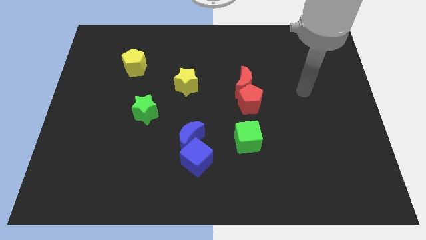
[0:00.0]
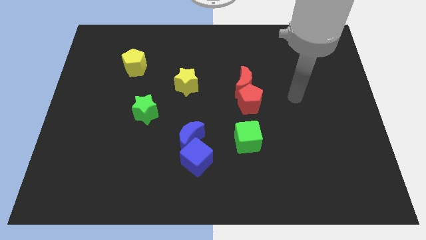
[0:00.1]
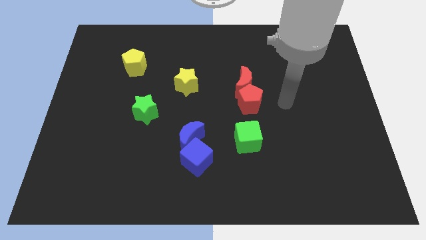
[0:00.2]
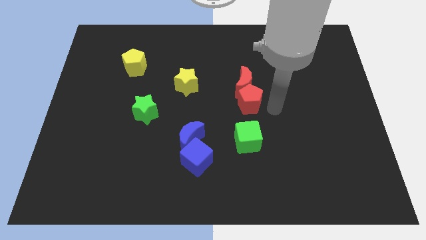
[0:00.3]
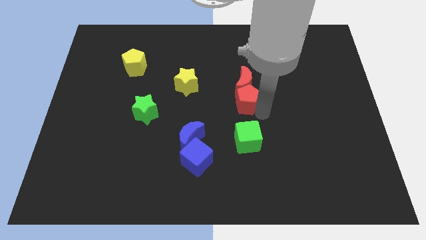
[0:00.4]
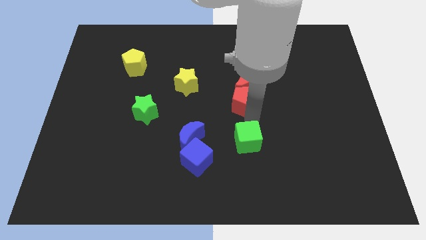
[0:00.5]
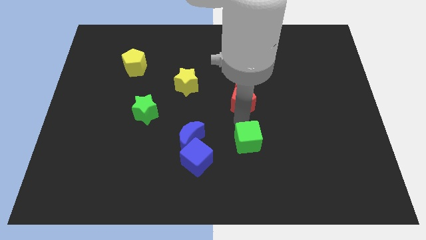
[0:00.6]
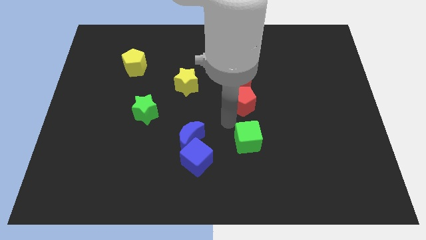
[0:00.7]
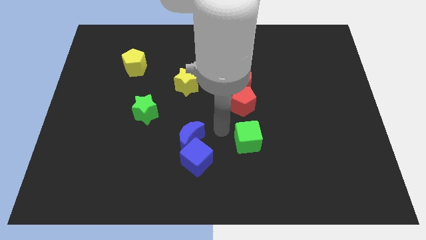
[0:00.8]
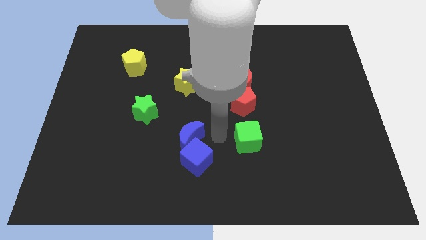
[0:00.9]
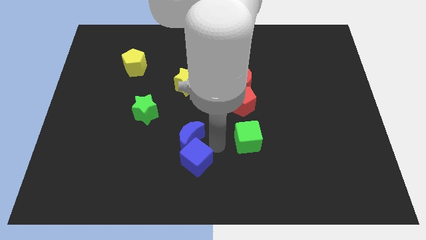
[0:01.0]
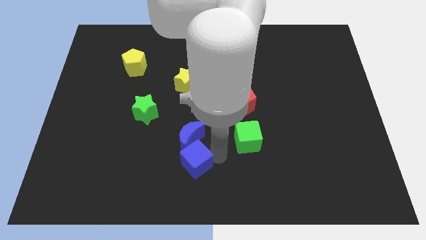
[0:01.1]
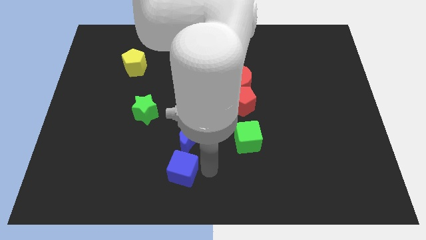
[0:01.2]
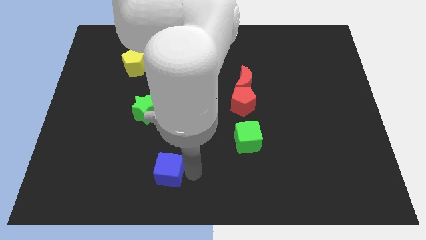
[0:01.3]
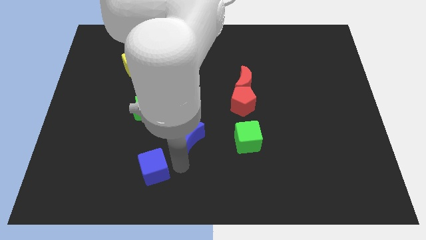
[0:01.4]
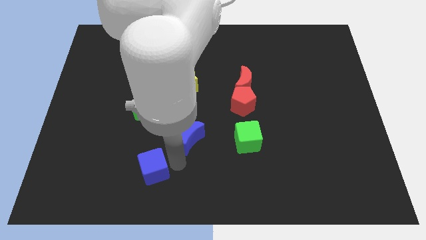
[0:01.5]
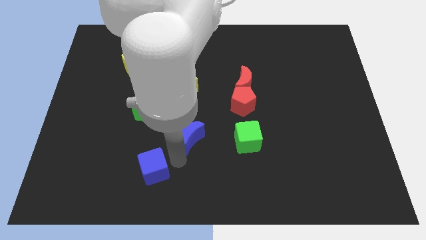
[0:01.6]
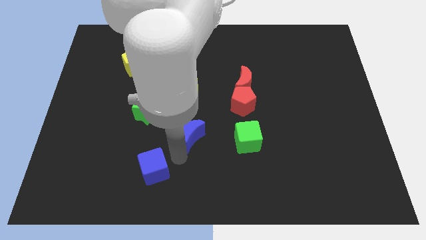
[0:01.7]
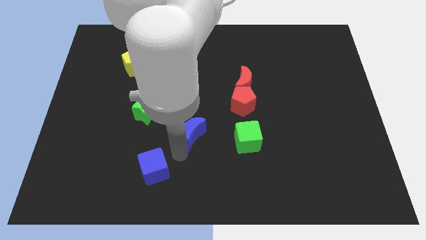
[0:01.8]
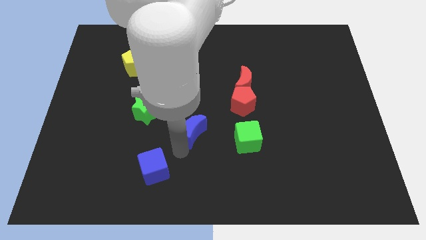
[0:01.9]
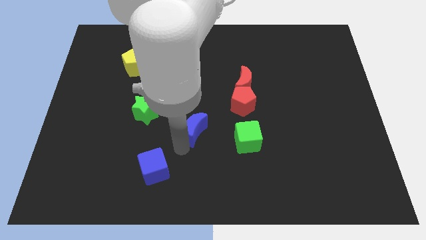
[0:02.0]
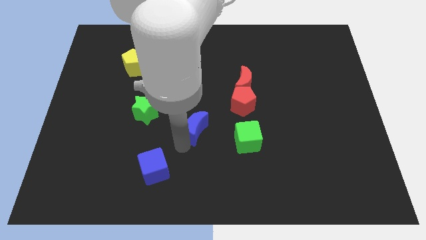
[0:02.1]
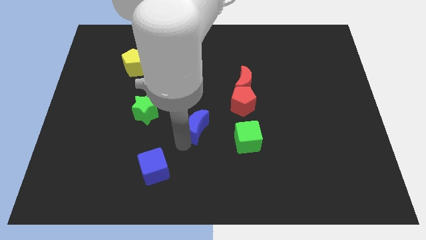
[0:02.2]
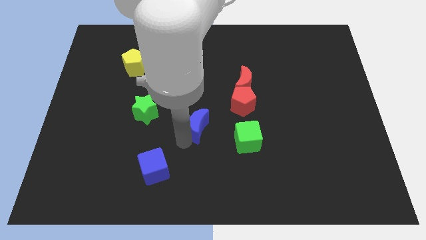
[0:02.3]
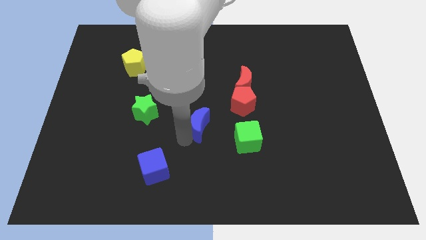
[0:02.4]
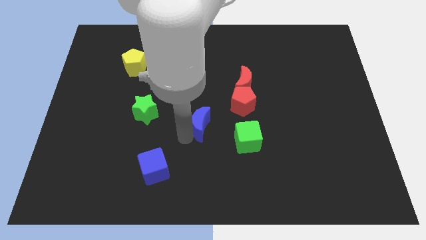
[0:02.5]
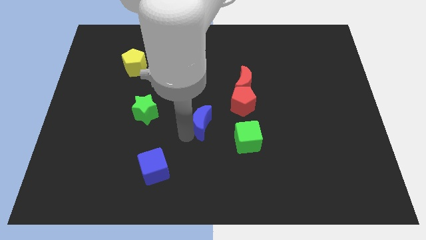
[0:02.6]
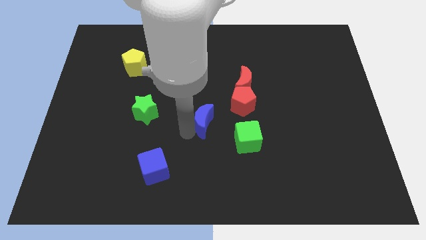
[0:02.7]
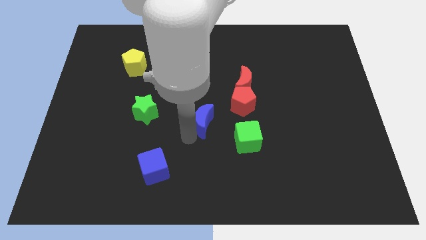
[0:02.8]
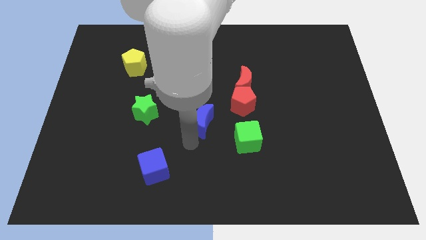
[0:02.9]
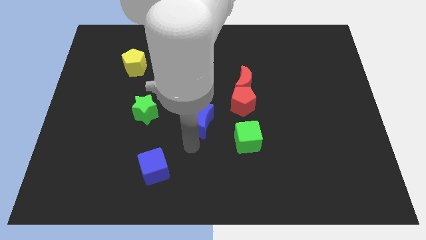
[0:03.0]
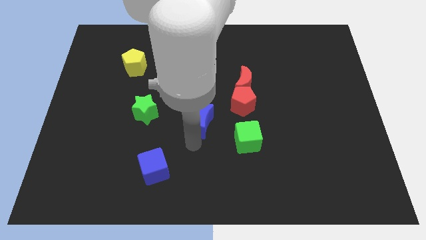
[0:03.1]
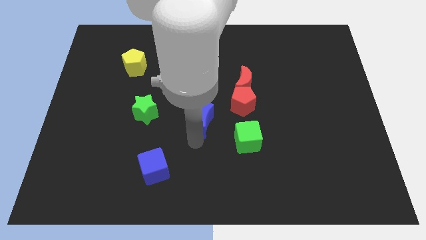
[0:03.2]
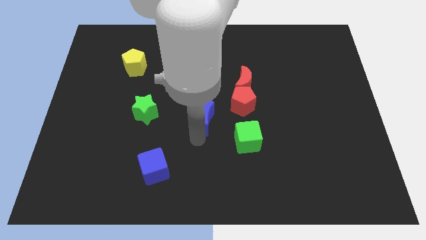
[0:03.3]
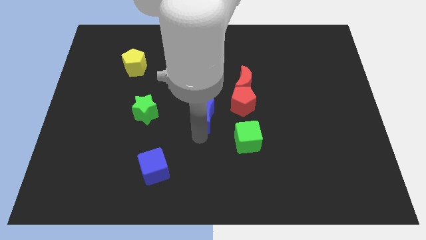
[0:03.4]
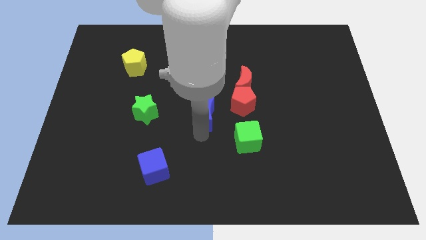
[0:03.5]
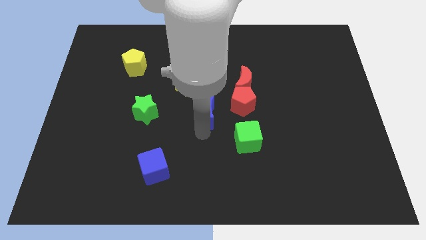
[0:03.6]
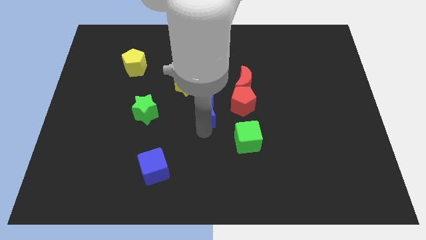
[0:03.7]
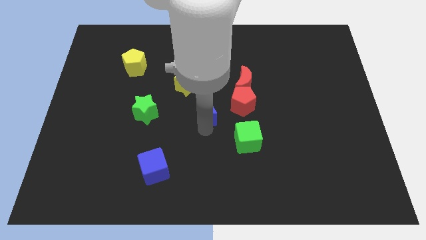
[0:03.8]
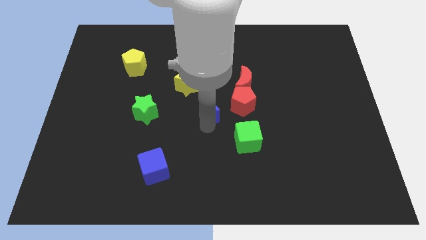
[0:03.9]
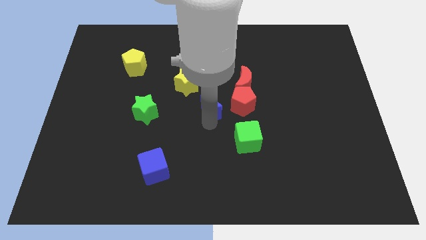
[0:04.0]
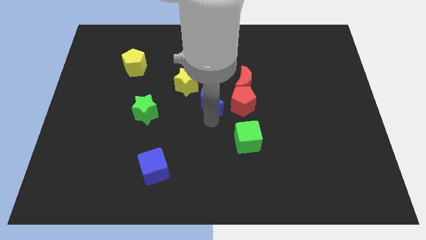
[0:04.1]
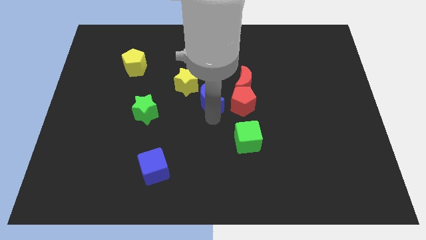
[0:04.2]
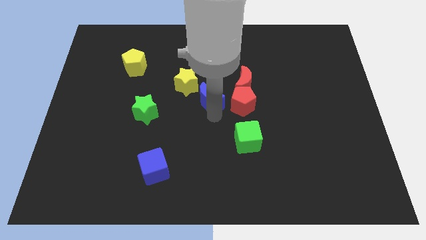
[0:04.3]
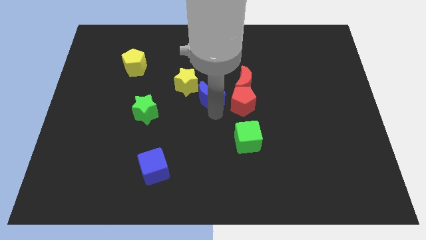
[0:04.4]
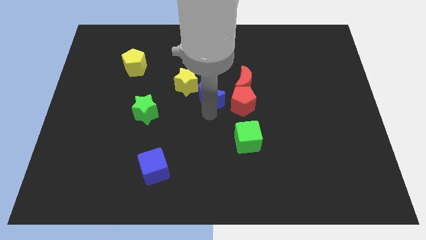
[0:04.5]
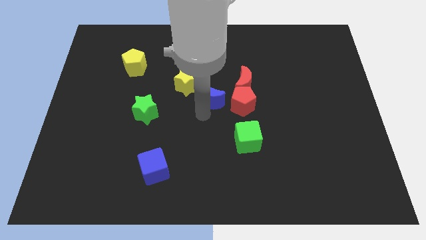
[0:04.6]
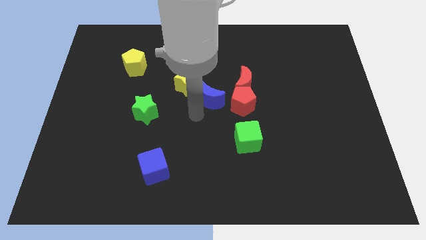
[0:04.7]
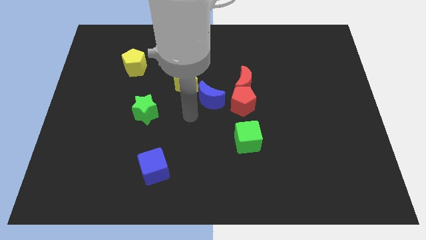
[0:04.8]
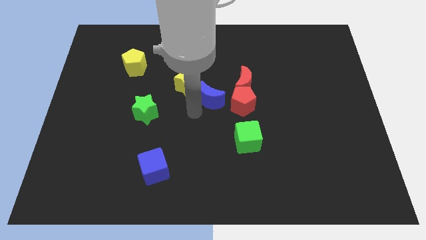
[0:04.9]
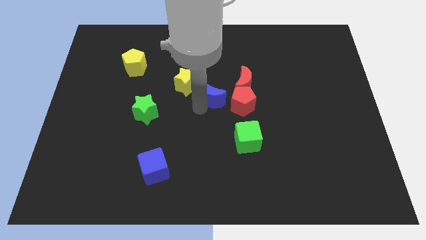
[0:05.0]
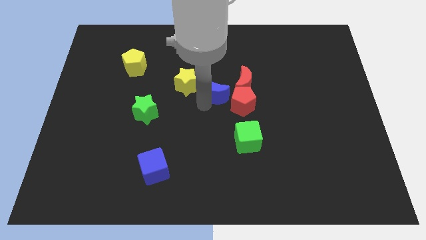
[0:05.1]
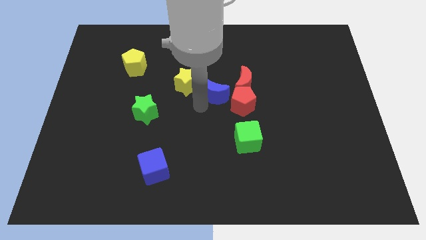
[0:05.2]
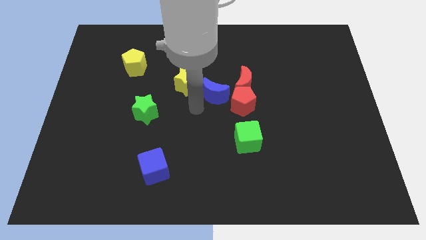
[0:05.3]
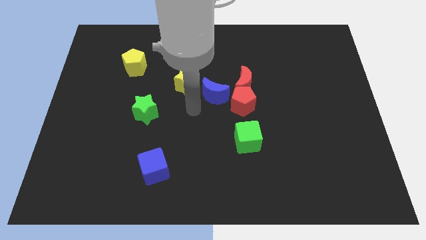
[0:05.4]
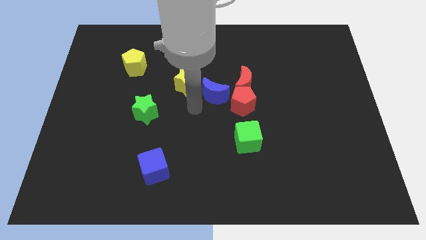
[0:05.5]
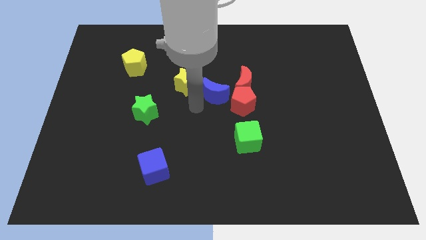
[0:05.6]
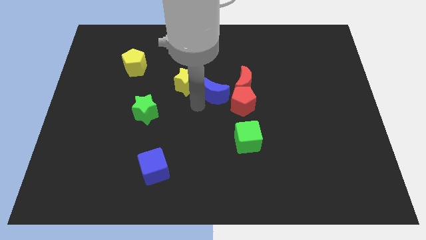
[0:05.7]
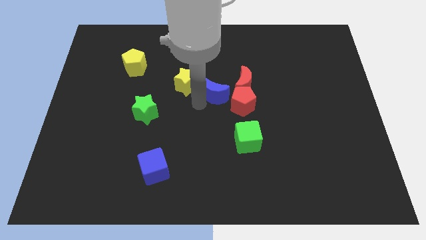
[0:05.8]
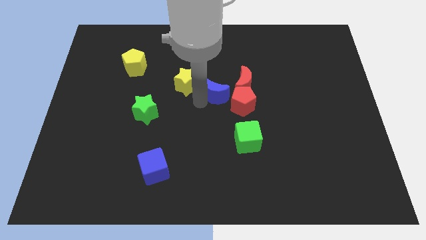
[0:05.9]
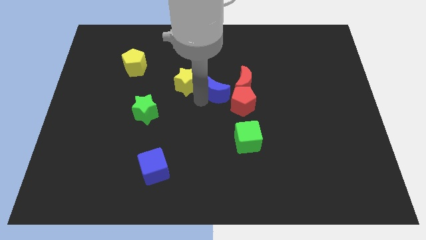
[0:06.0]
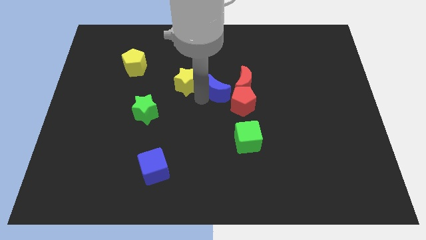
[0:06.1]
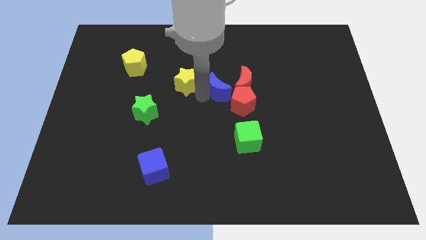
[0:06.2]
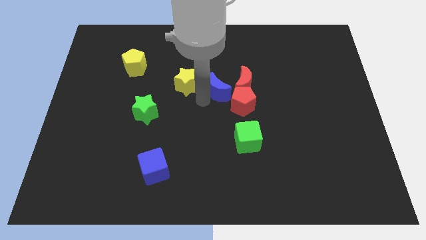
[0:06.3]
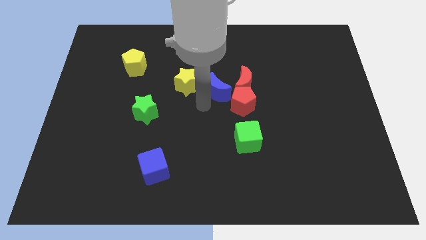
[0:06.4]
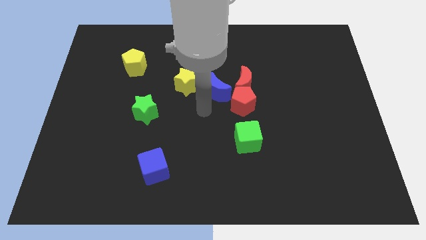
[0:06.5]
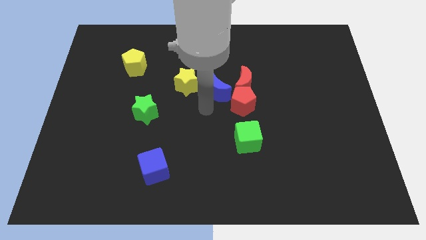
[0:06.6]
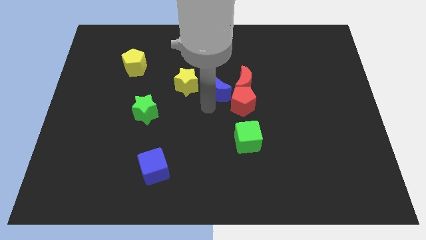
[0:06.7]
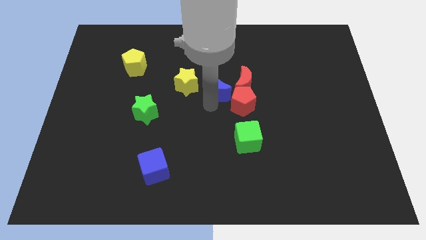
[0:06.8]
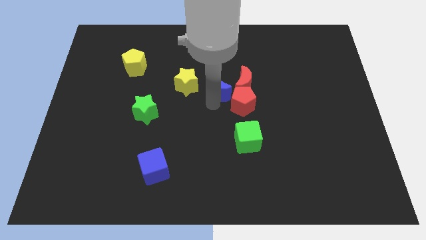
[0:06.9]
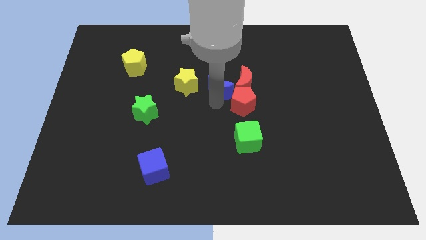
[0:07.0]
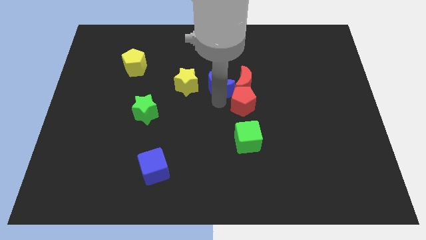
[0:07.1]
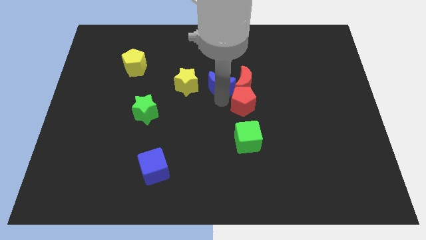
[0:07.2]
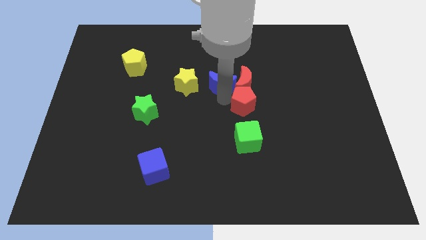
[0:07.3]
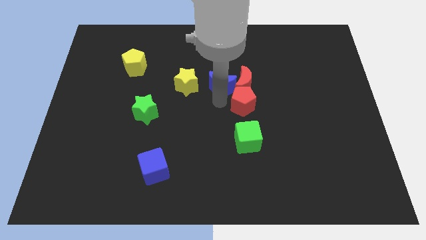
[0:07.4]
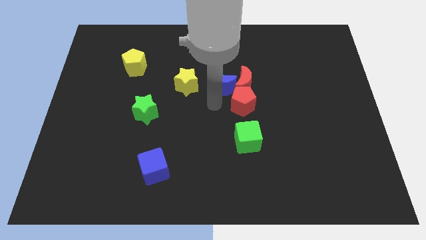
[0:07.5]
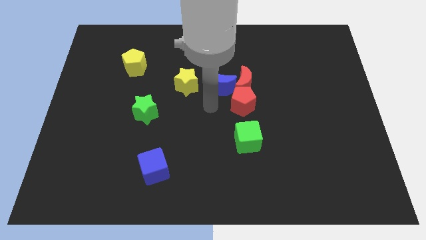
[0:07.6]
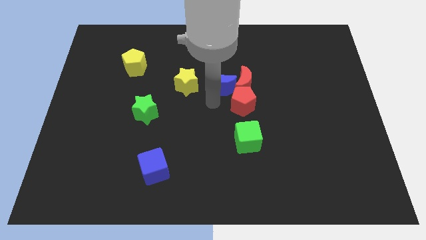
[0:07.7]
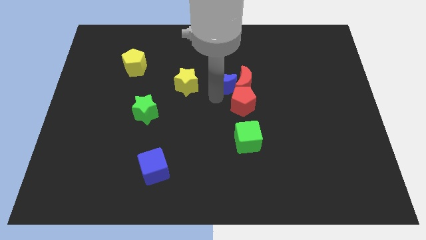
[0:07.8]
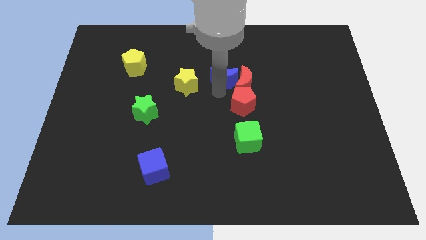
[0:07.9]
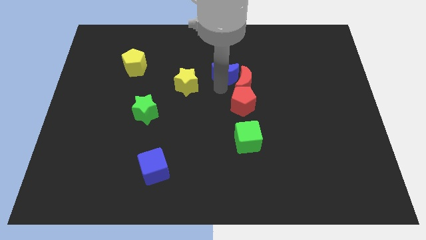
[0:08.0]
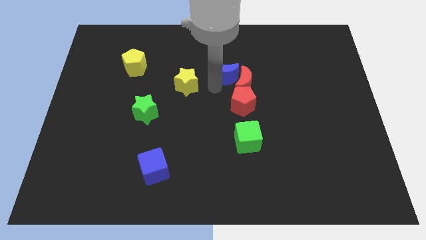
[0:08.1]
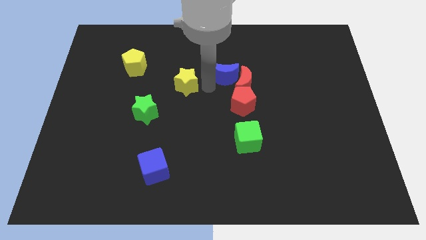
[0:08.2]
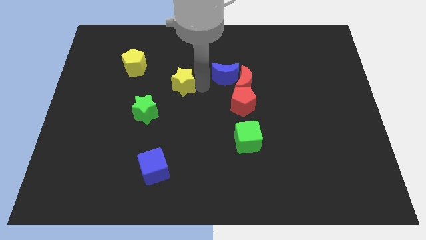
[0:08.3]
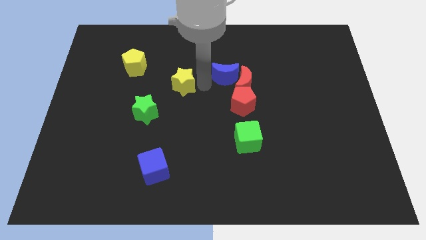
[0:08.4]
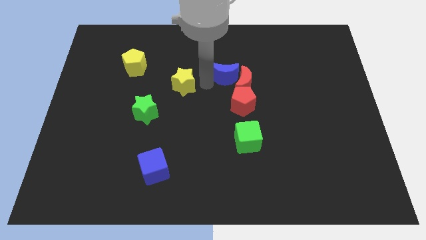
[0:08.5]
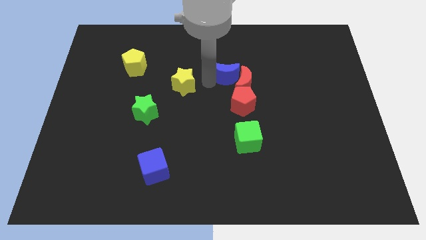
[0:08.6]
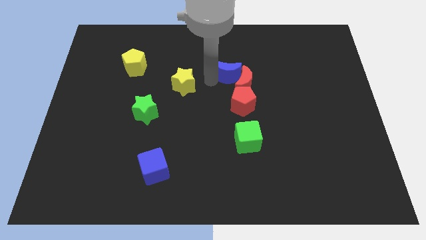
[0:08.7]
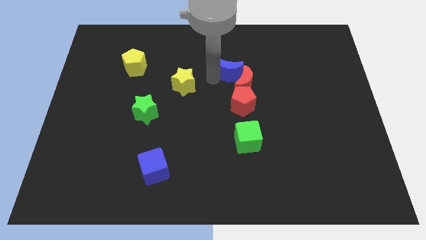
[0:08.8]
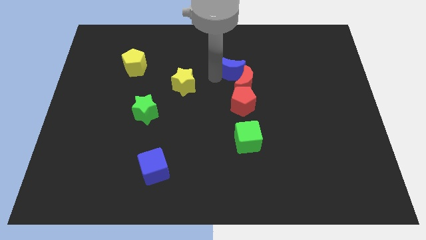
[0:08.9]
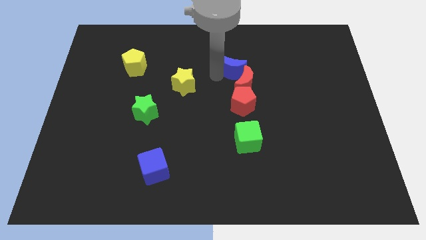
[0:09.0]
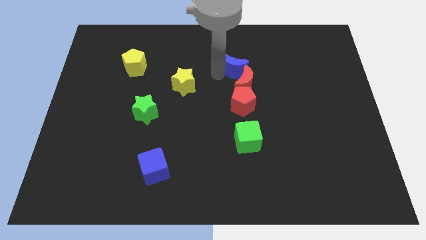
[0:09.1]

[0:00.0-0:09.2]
slide the blue moon upwards and to the right
